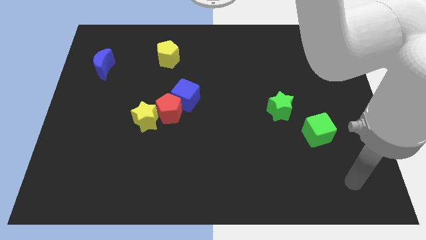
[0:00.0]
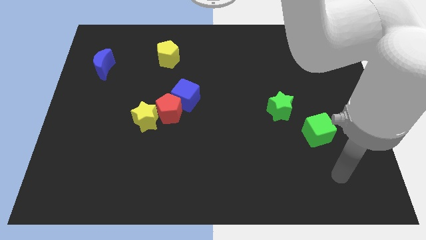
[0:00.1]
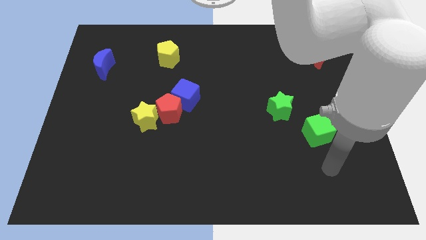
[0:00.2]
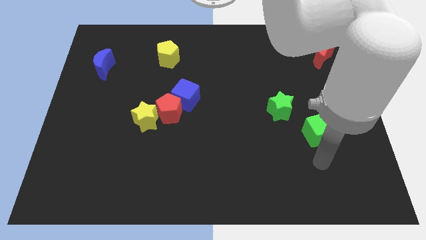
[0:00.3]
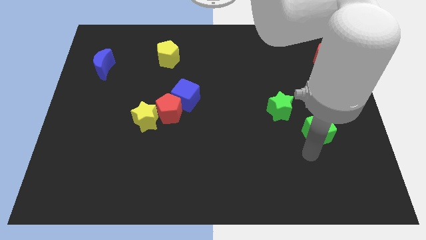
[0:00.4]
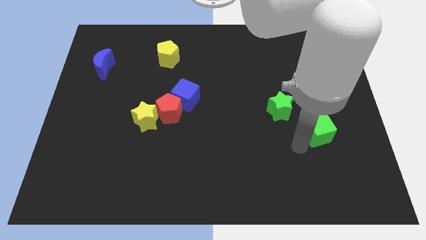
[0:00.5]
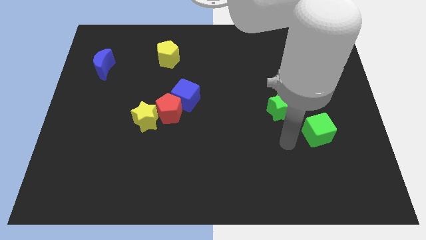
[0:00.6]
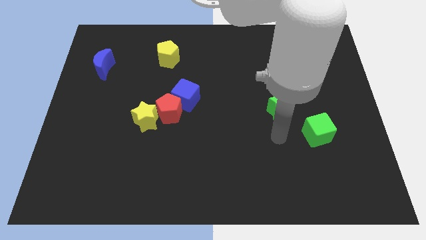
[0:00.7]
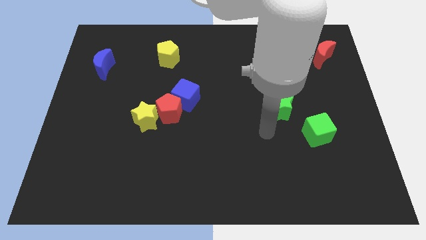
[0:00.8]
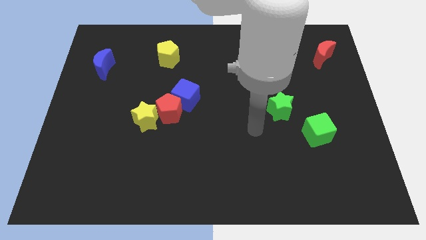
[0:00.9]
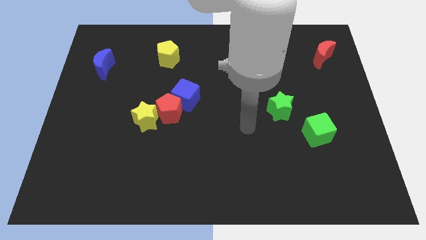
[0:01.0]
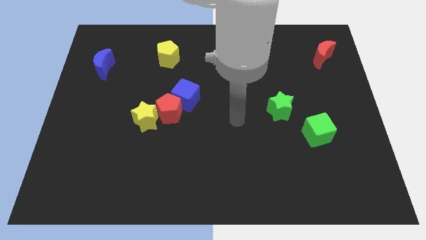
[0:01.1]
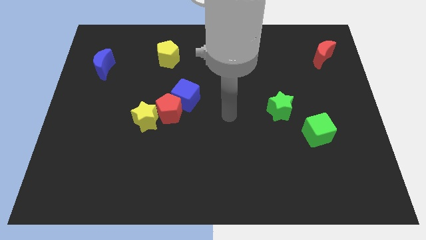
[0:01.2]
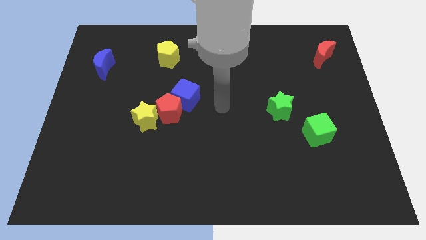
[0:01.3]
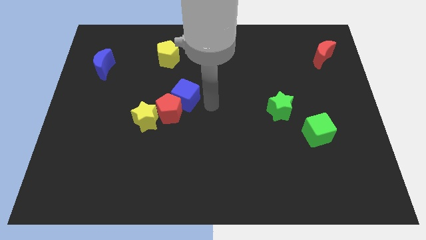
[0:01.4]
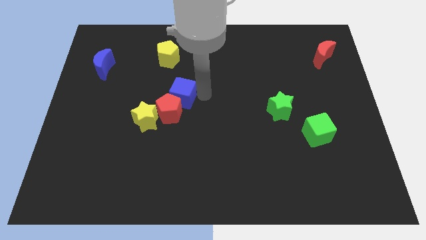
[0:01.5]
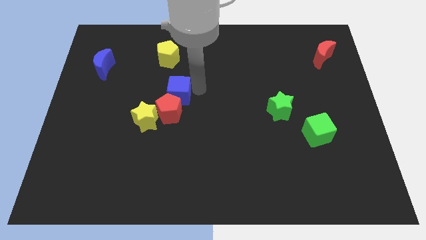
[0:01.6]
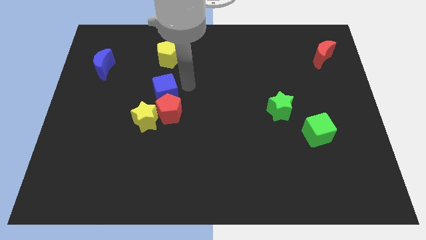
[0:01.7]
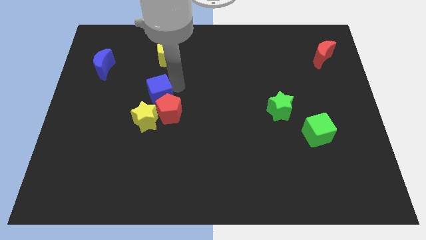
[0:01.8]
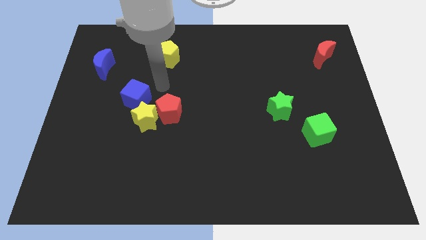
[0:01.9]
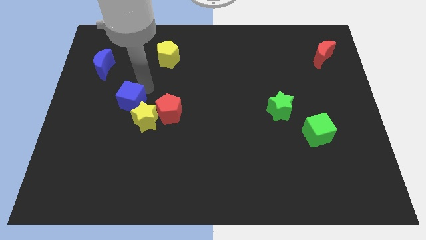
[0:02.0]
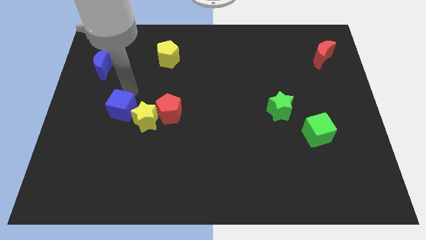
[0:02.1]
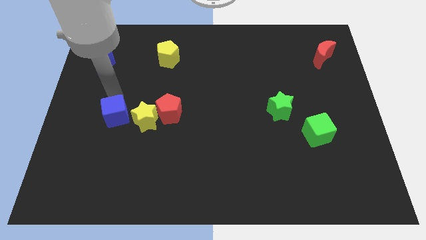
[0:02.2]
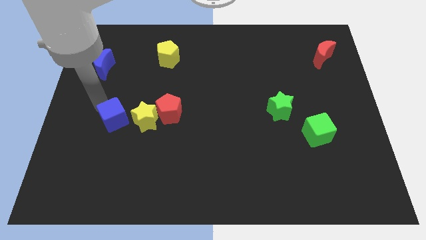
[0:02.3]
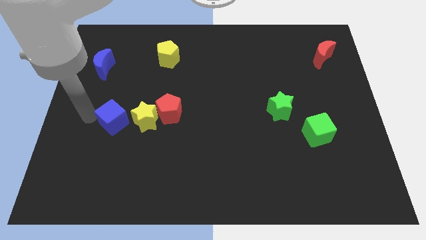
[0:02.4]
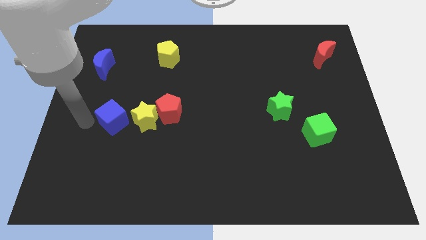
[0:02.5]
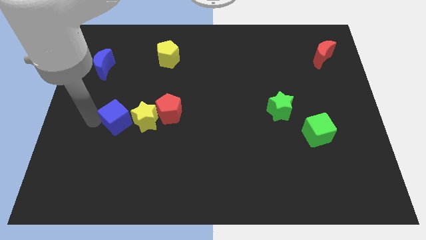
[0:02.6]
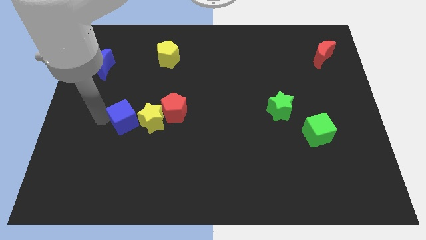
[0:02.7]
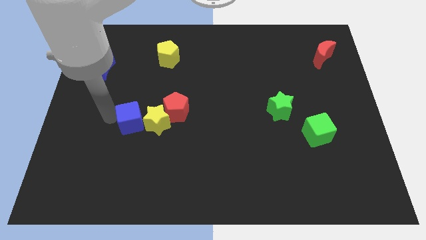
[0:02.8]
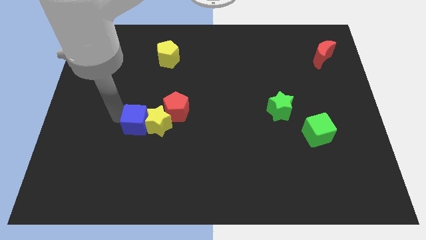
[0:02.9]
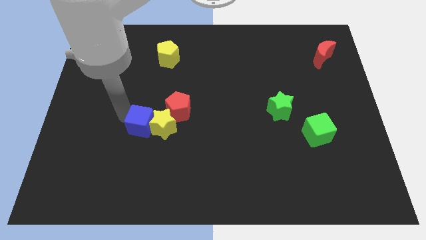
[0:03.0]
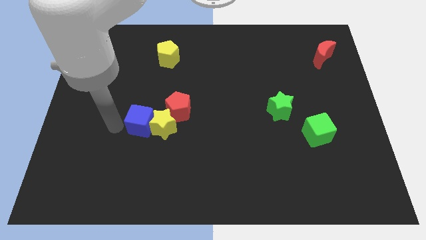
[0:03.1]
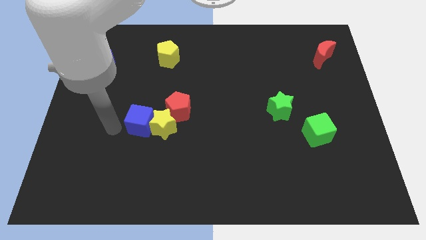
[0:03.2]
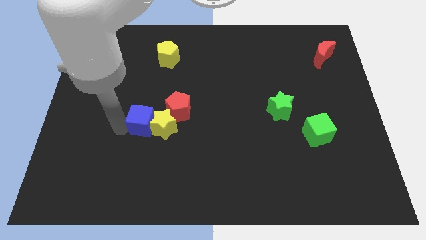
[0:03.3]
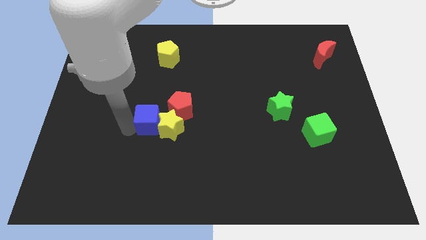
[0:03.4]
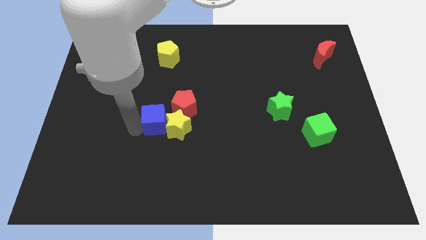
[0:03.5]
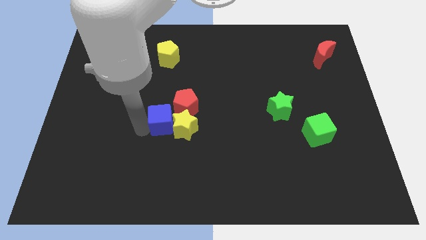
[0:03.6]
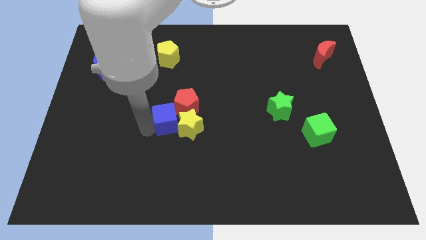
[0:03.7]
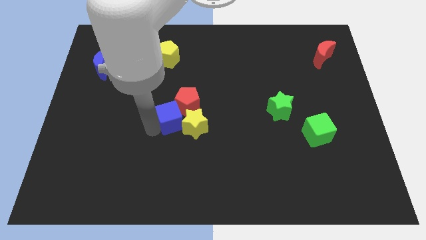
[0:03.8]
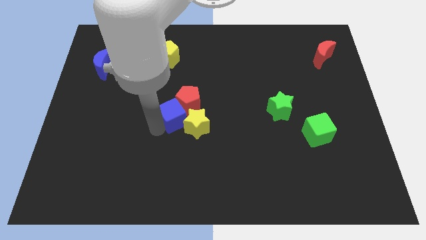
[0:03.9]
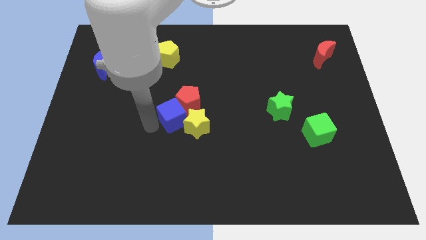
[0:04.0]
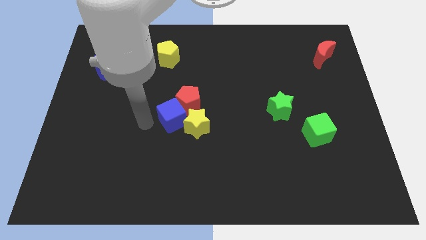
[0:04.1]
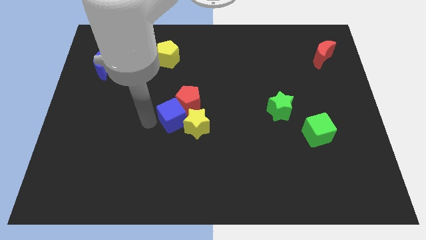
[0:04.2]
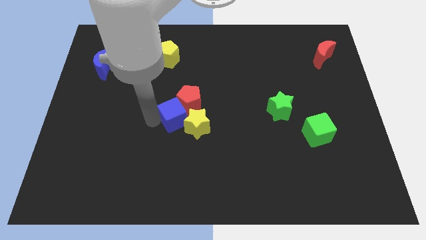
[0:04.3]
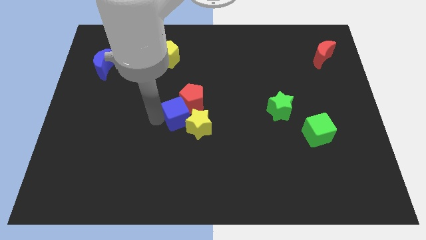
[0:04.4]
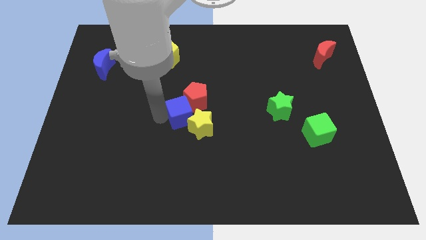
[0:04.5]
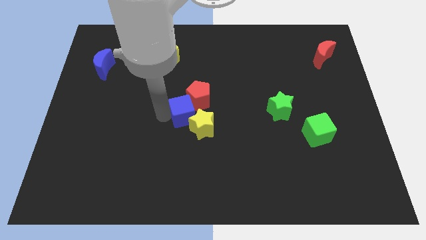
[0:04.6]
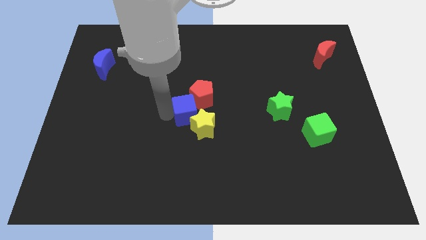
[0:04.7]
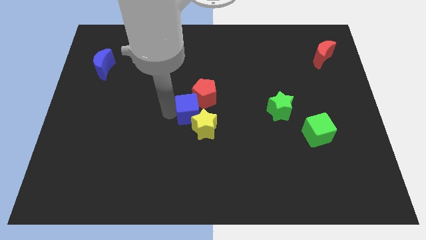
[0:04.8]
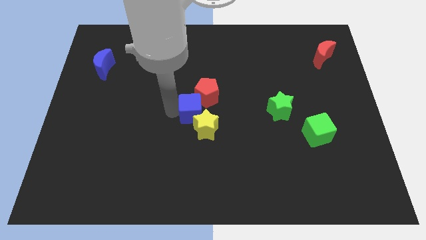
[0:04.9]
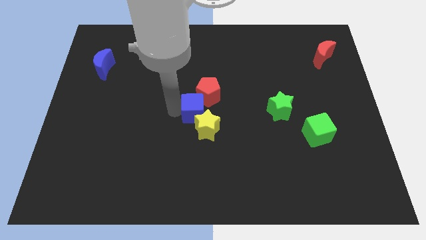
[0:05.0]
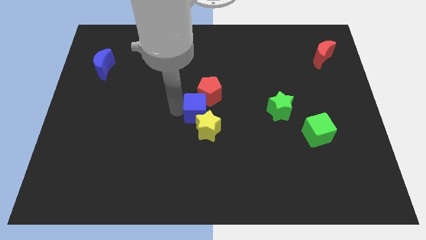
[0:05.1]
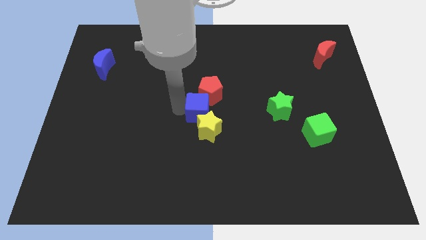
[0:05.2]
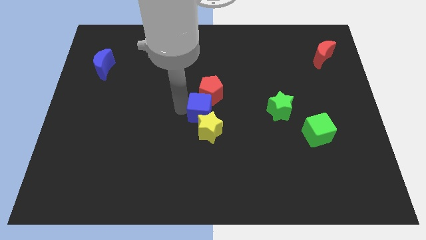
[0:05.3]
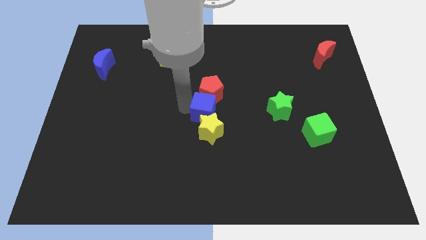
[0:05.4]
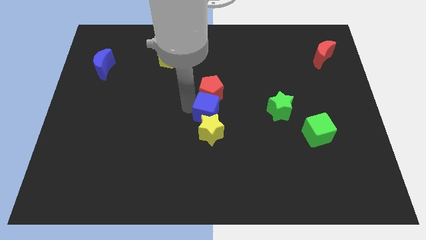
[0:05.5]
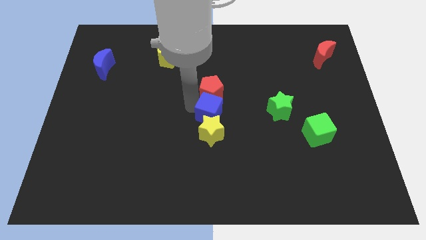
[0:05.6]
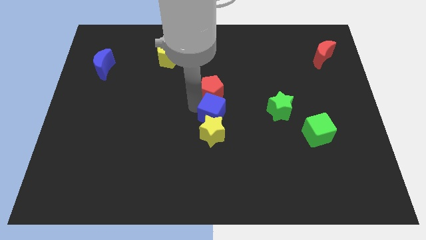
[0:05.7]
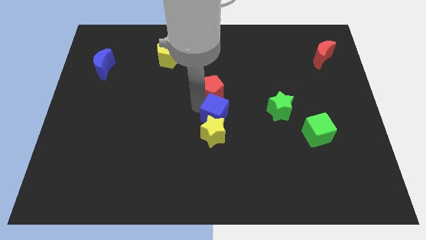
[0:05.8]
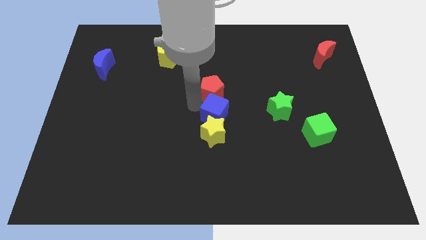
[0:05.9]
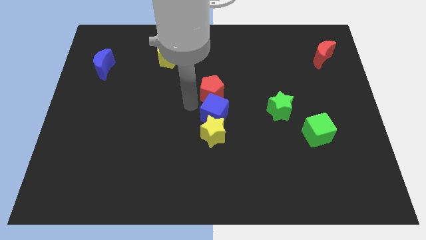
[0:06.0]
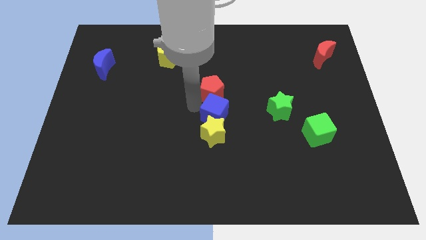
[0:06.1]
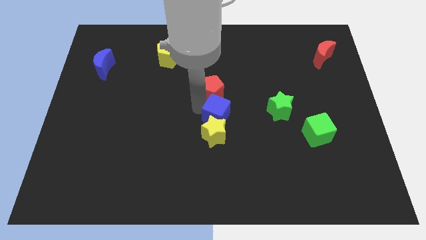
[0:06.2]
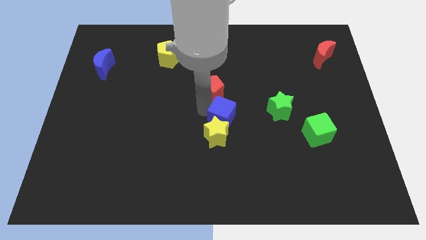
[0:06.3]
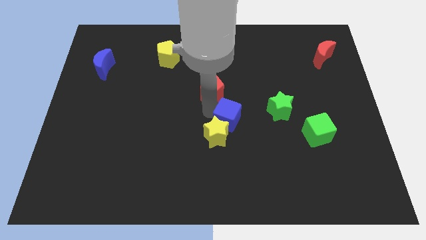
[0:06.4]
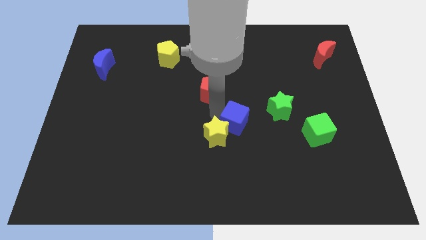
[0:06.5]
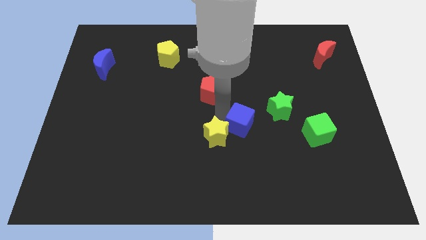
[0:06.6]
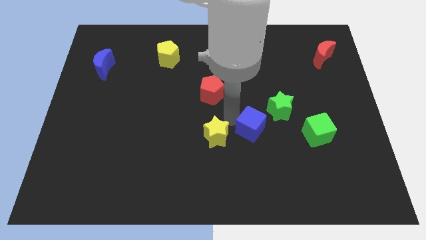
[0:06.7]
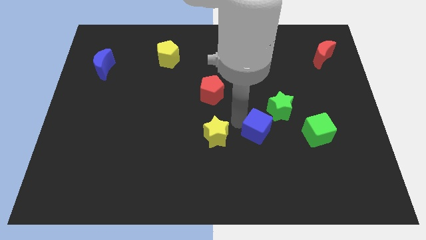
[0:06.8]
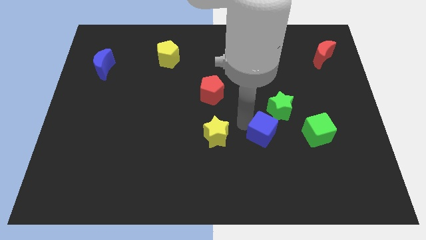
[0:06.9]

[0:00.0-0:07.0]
slide the blue cube below the green star
